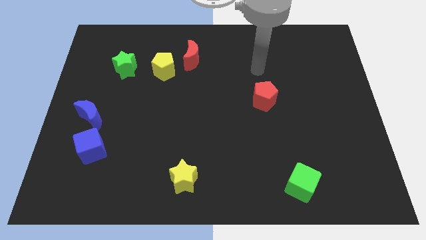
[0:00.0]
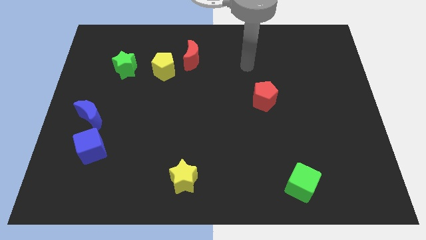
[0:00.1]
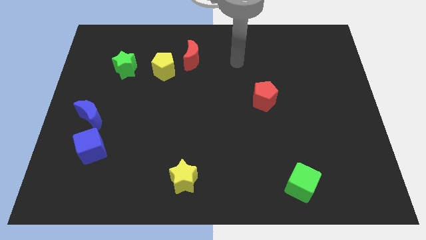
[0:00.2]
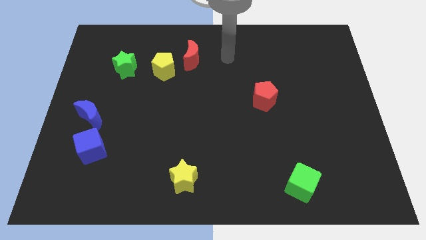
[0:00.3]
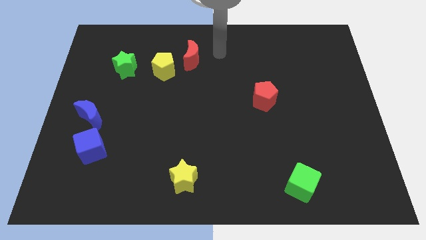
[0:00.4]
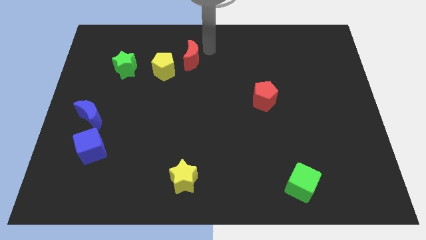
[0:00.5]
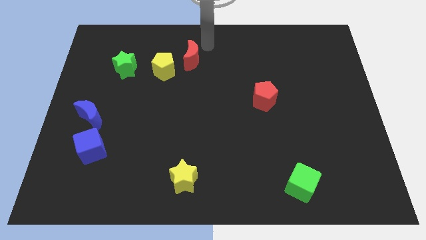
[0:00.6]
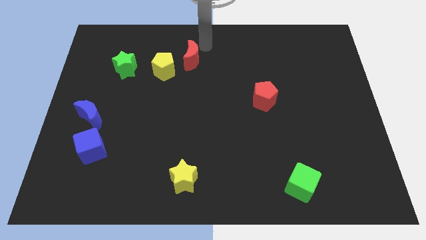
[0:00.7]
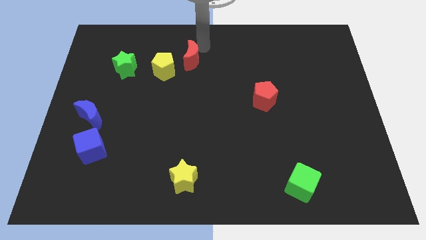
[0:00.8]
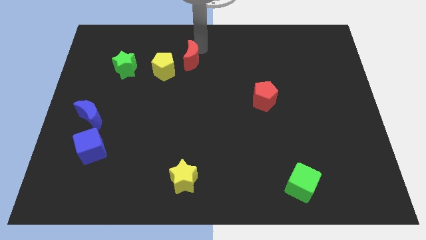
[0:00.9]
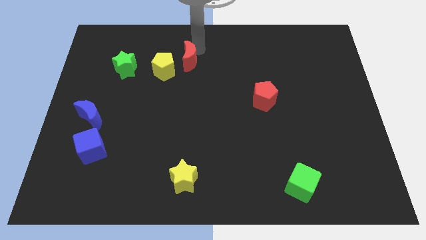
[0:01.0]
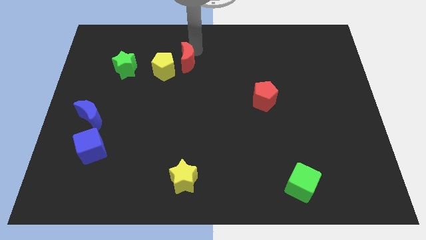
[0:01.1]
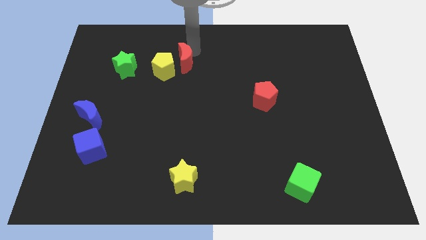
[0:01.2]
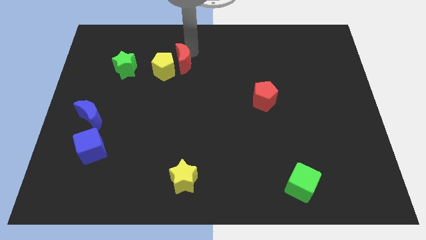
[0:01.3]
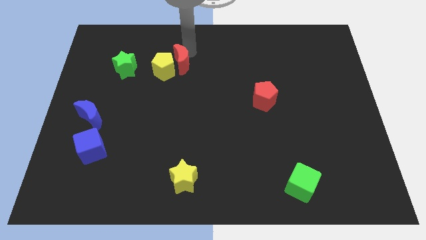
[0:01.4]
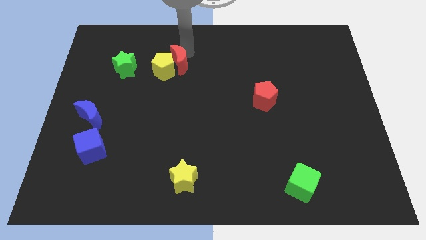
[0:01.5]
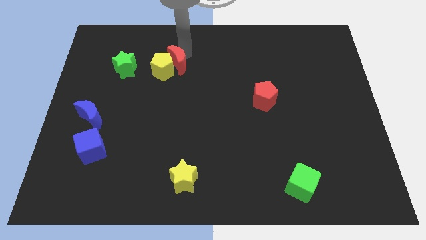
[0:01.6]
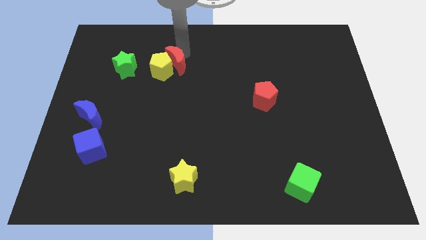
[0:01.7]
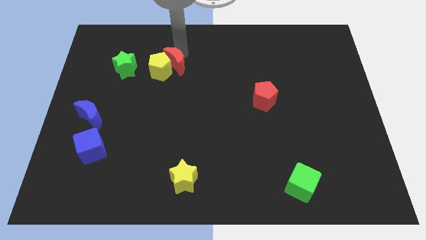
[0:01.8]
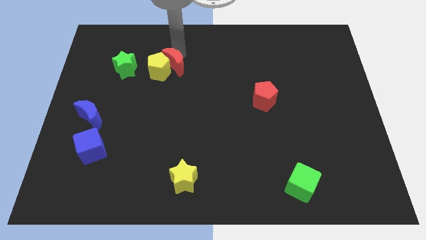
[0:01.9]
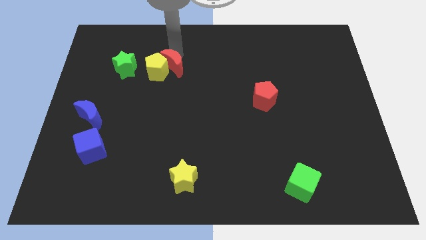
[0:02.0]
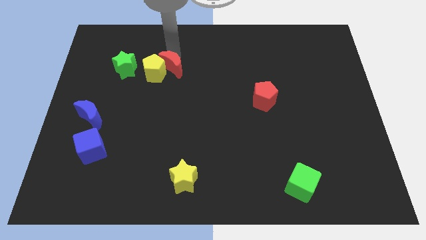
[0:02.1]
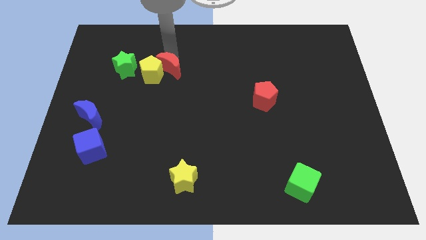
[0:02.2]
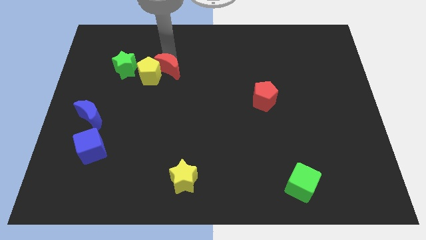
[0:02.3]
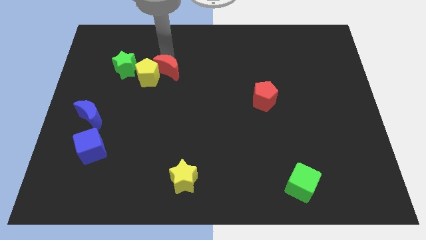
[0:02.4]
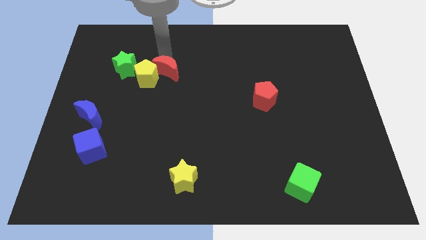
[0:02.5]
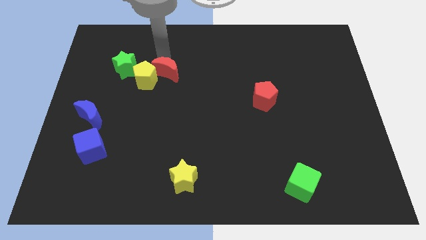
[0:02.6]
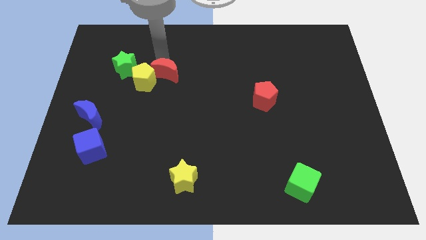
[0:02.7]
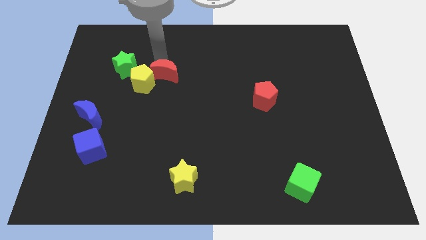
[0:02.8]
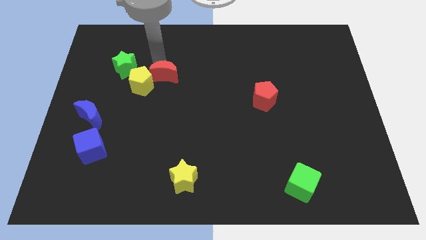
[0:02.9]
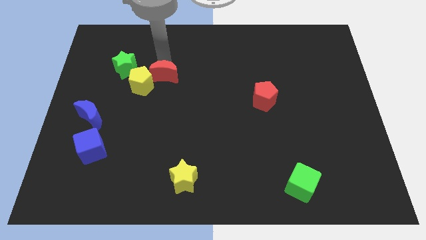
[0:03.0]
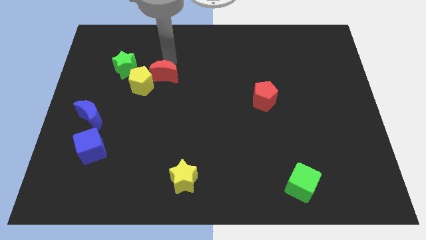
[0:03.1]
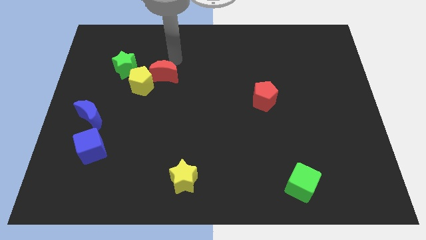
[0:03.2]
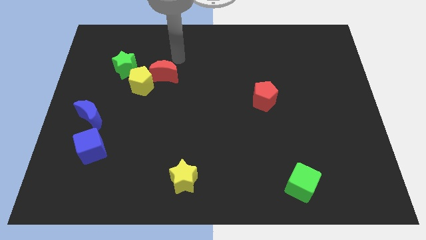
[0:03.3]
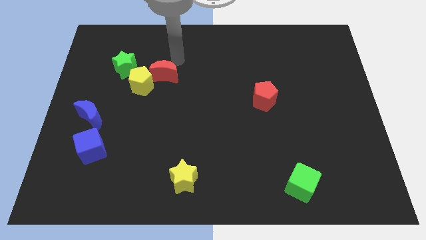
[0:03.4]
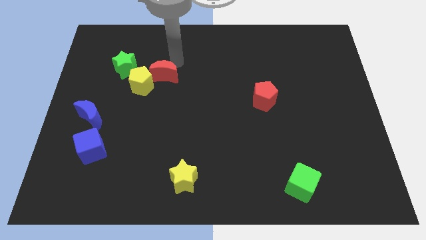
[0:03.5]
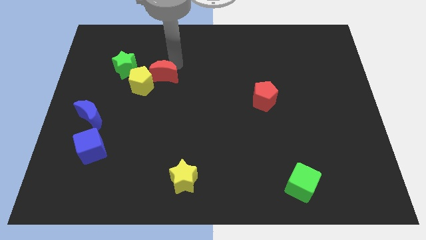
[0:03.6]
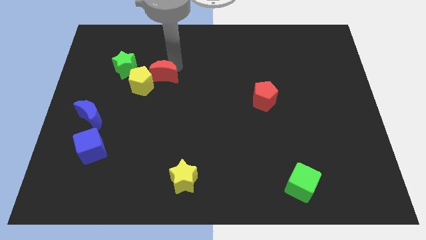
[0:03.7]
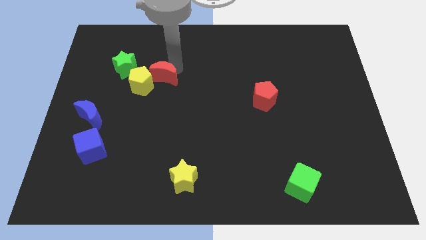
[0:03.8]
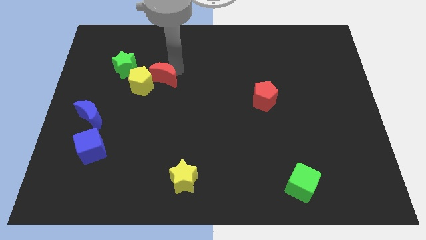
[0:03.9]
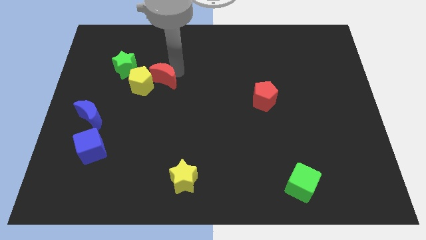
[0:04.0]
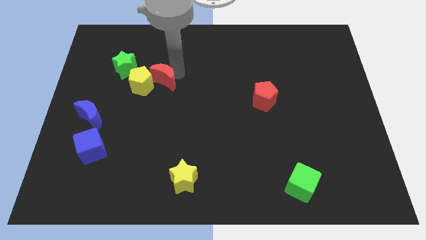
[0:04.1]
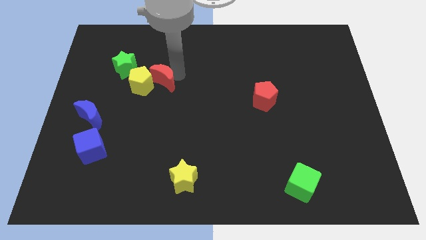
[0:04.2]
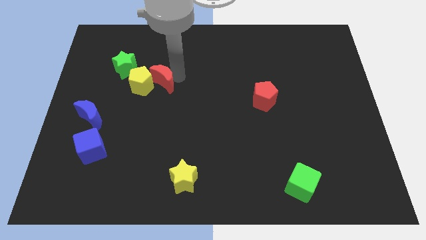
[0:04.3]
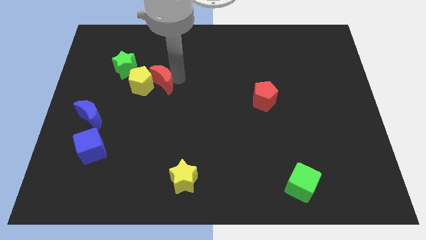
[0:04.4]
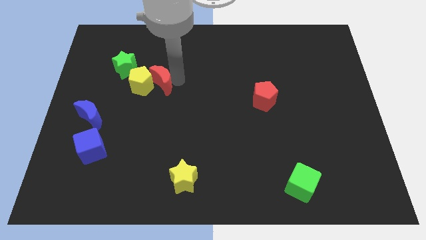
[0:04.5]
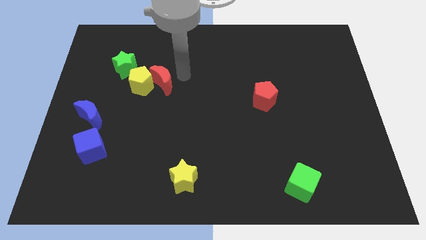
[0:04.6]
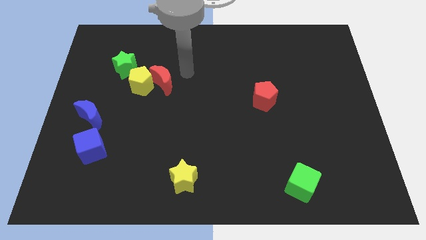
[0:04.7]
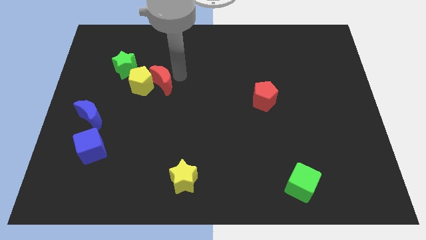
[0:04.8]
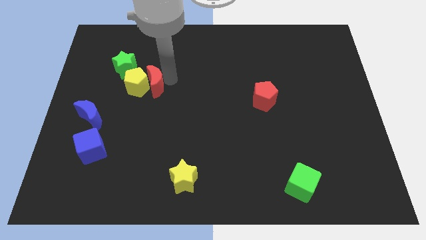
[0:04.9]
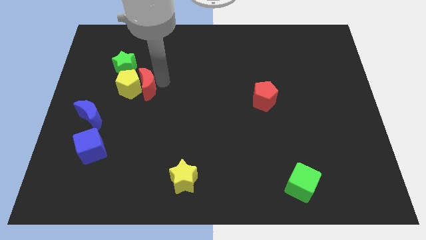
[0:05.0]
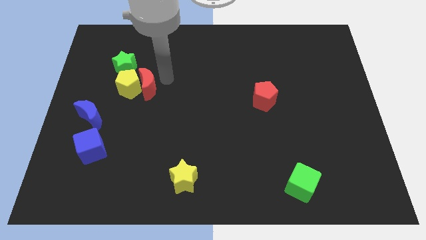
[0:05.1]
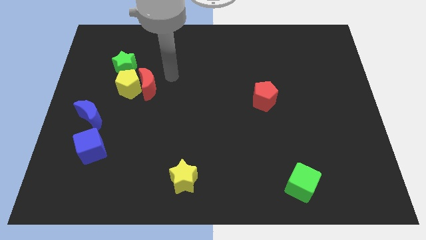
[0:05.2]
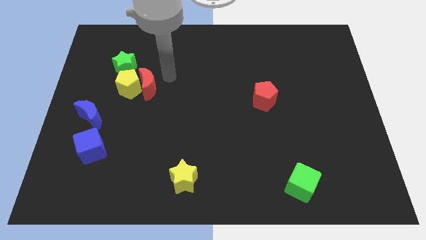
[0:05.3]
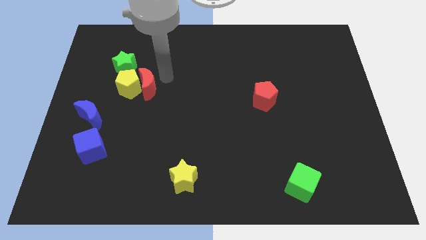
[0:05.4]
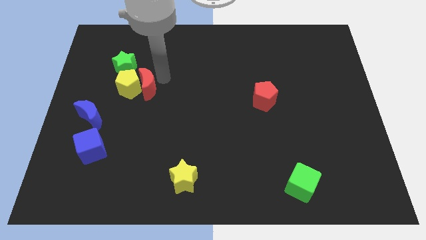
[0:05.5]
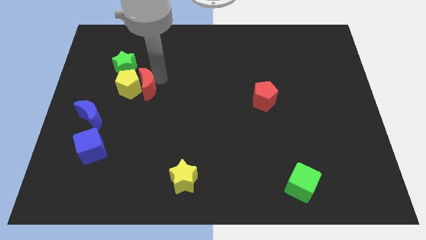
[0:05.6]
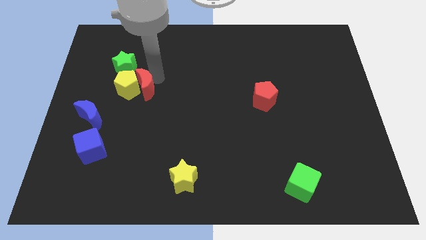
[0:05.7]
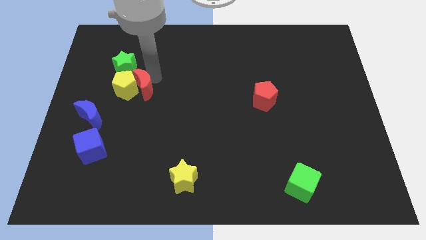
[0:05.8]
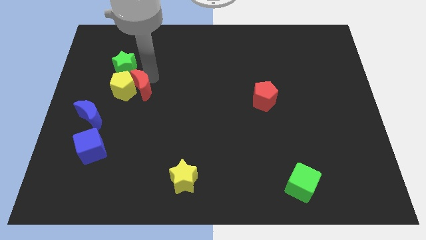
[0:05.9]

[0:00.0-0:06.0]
put the red moon below the green star
